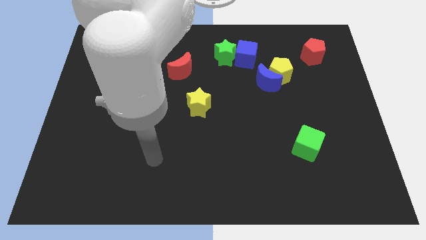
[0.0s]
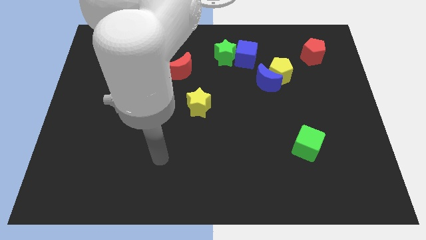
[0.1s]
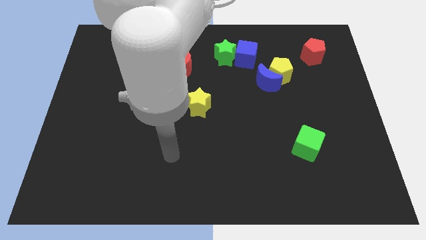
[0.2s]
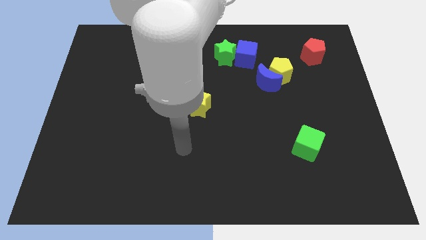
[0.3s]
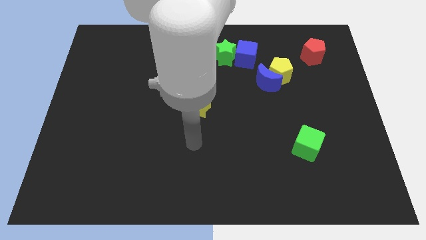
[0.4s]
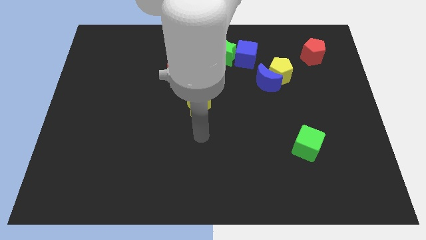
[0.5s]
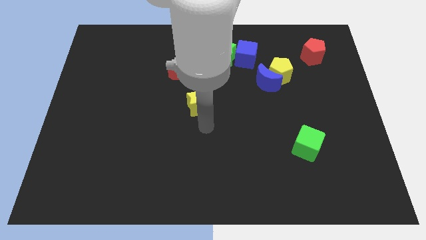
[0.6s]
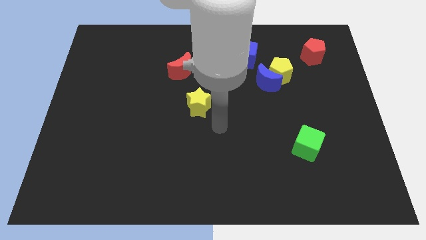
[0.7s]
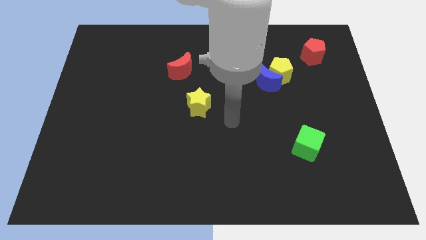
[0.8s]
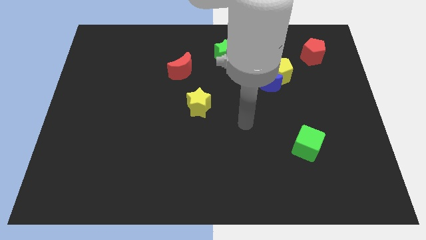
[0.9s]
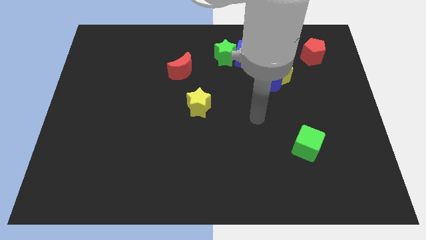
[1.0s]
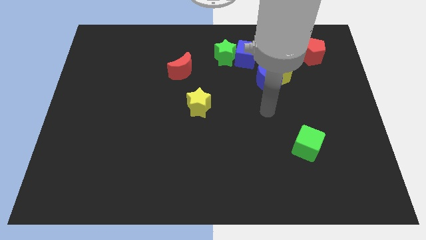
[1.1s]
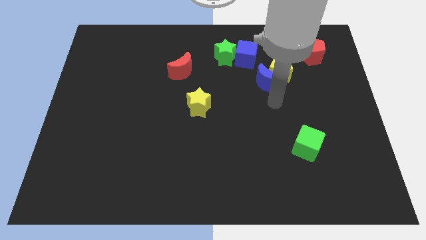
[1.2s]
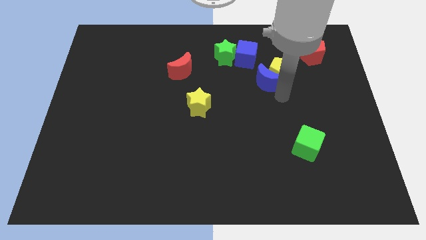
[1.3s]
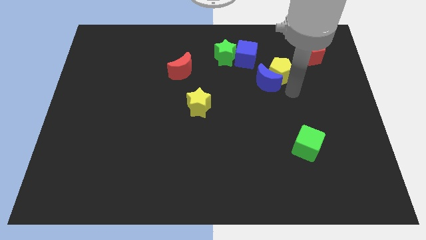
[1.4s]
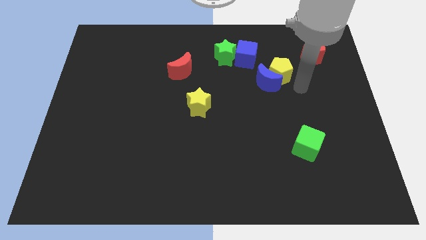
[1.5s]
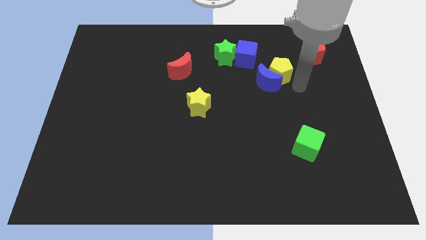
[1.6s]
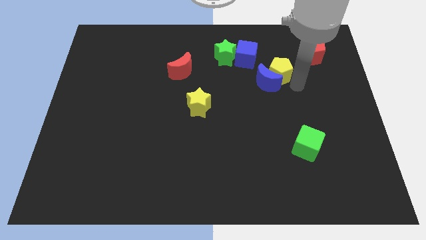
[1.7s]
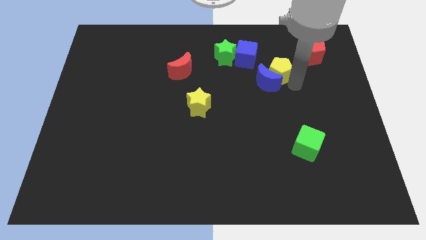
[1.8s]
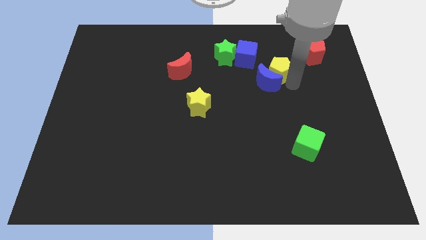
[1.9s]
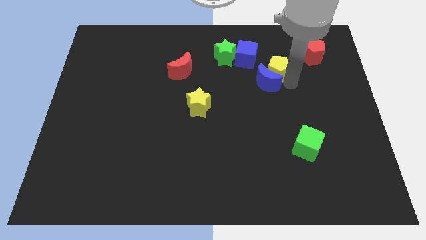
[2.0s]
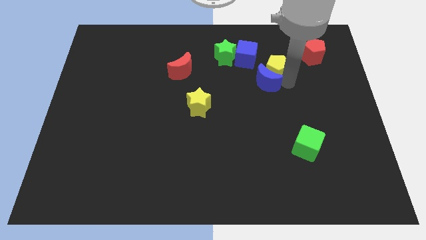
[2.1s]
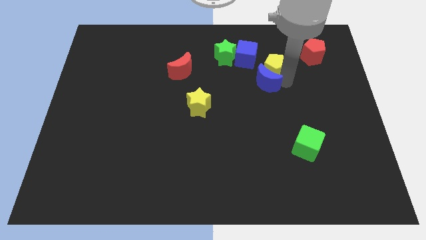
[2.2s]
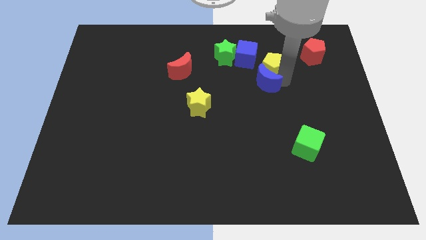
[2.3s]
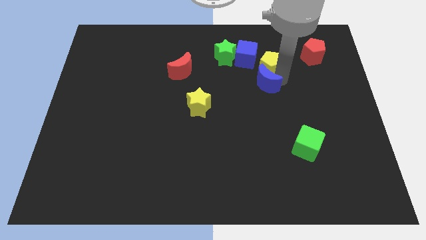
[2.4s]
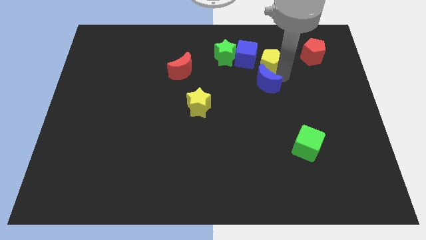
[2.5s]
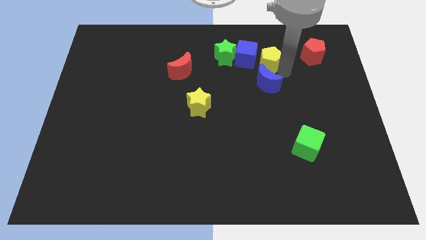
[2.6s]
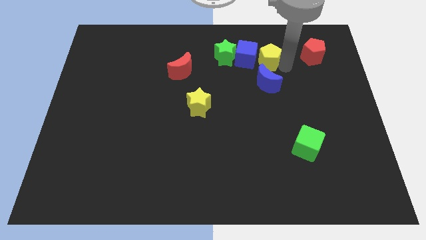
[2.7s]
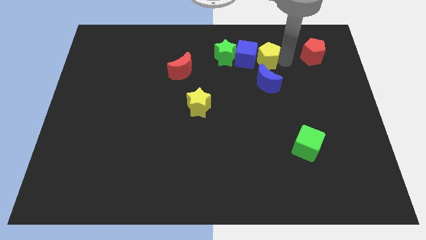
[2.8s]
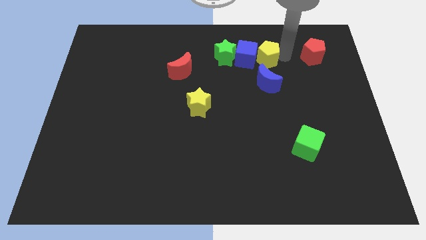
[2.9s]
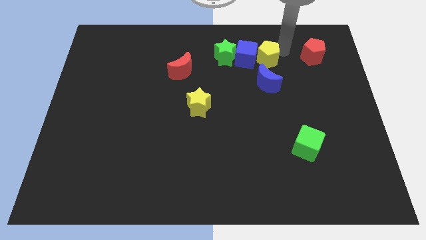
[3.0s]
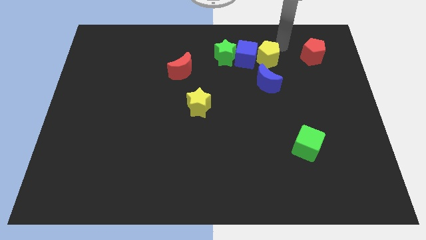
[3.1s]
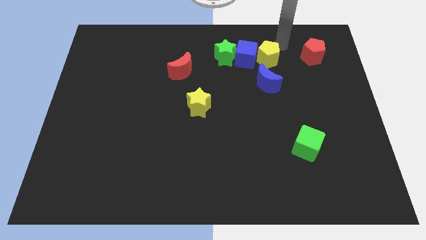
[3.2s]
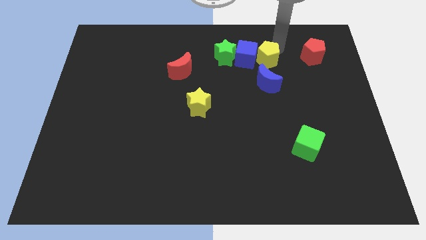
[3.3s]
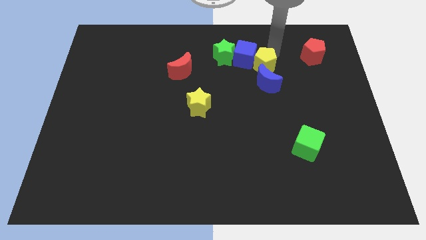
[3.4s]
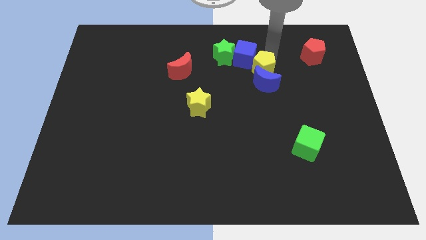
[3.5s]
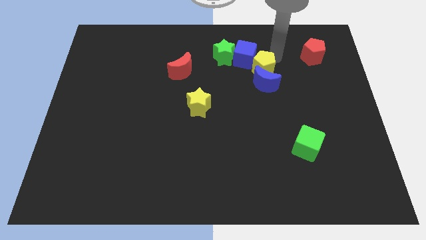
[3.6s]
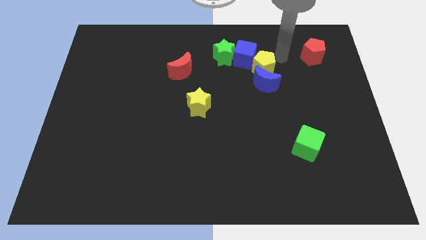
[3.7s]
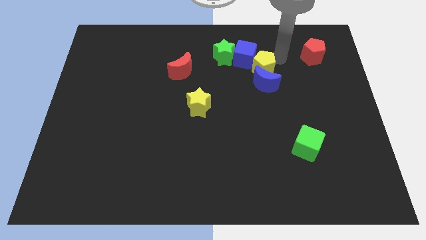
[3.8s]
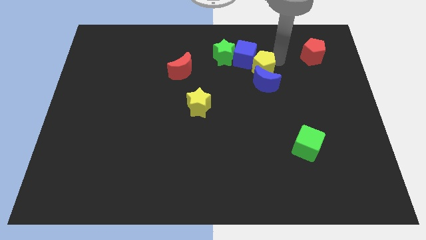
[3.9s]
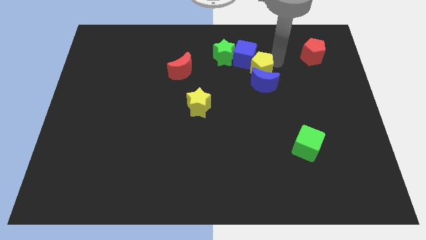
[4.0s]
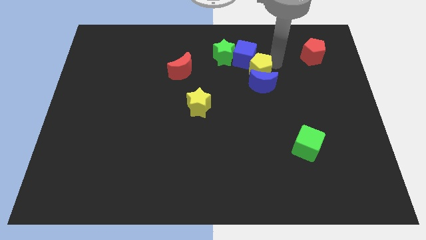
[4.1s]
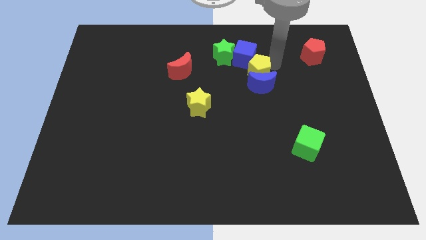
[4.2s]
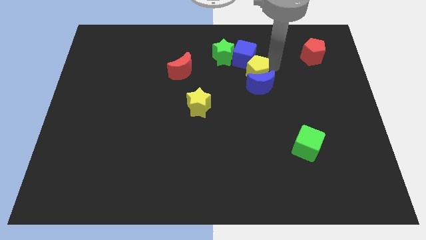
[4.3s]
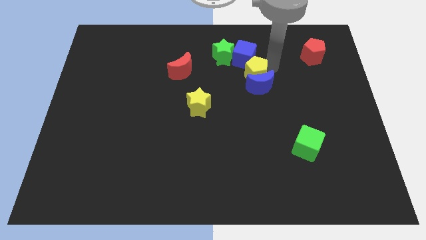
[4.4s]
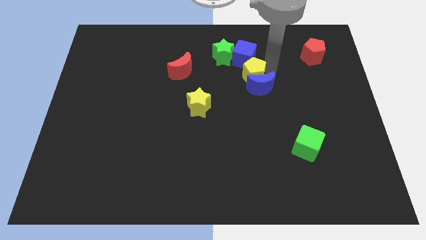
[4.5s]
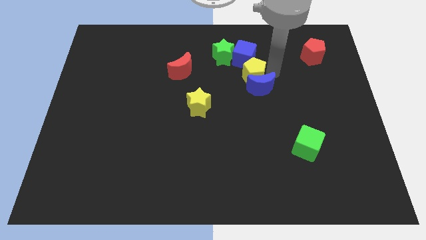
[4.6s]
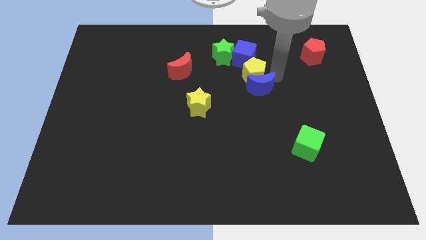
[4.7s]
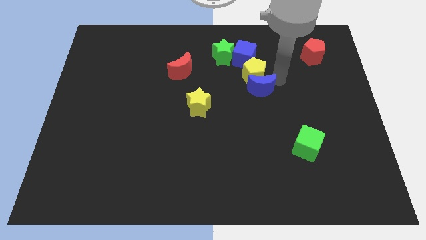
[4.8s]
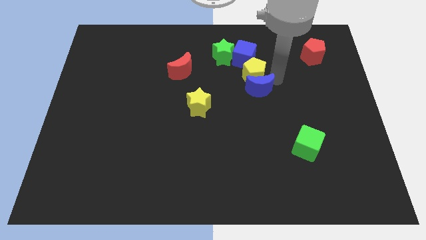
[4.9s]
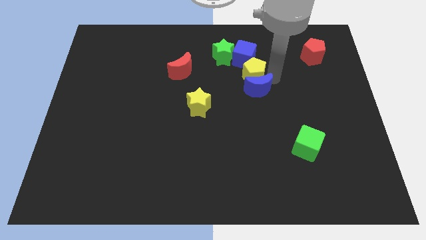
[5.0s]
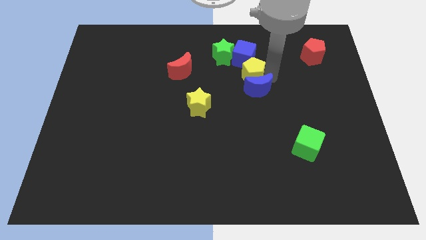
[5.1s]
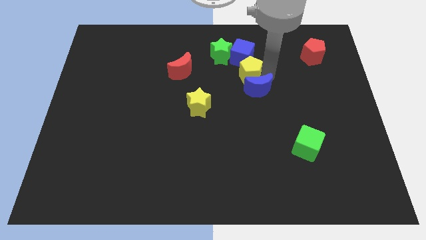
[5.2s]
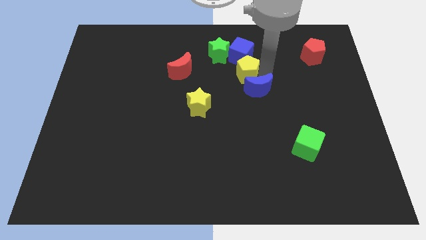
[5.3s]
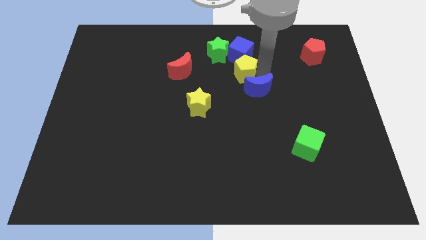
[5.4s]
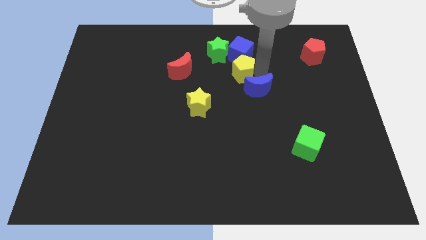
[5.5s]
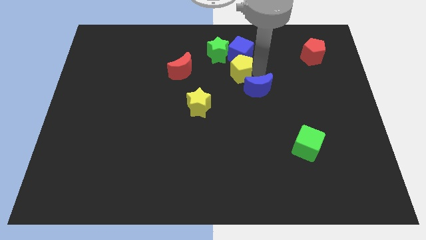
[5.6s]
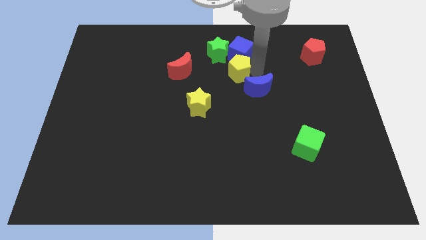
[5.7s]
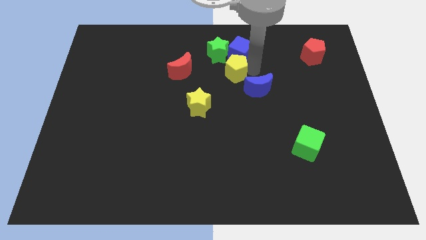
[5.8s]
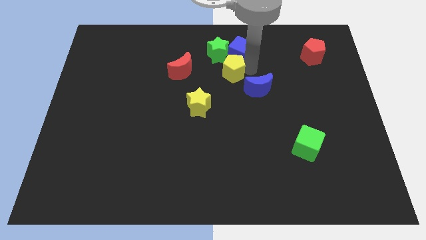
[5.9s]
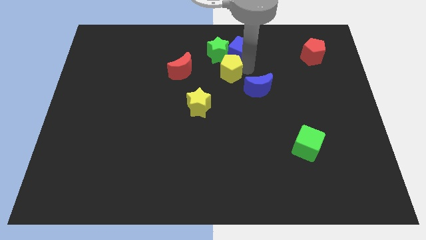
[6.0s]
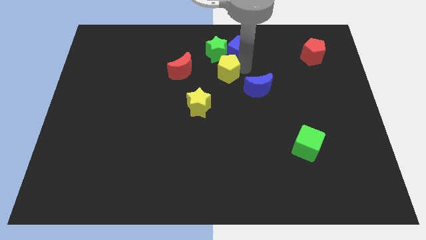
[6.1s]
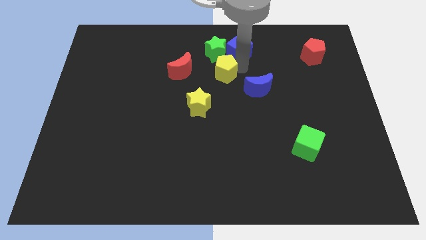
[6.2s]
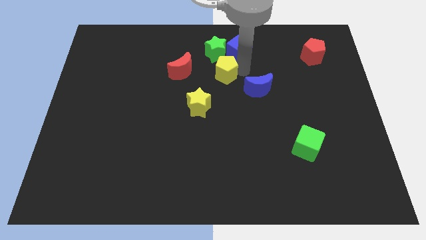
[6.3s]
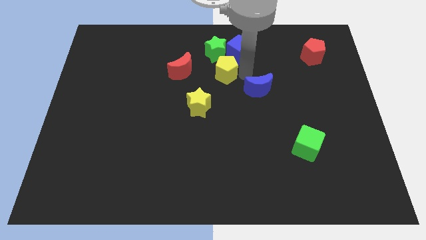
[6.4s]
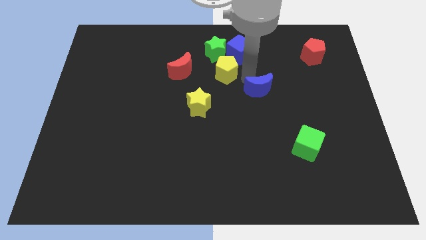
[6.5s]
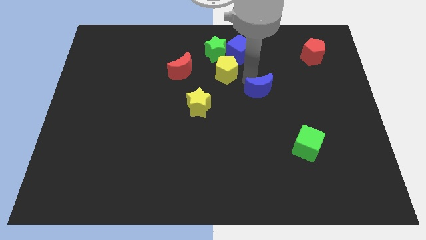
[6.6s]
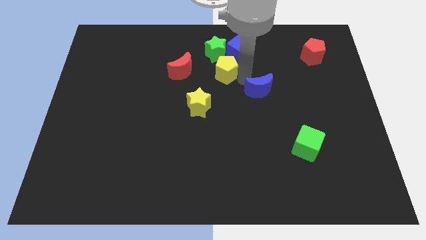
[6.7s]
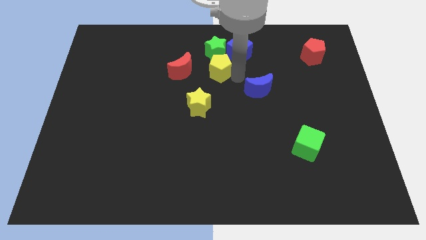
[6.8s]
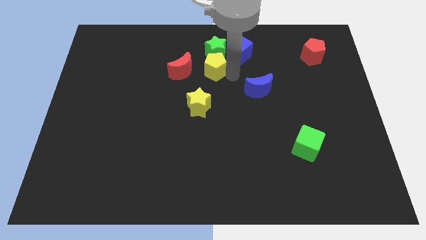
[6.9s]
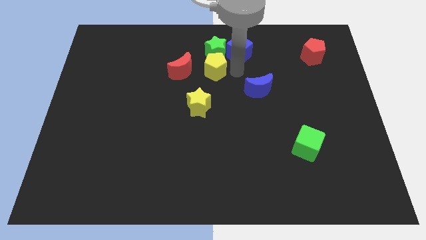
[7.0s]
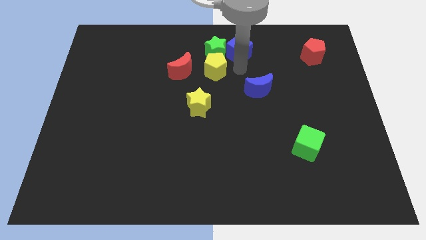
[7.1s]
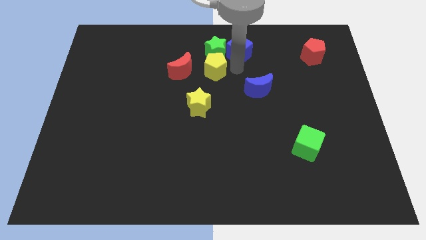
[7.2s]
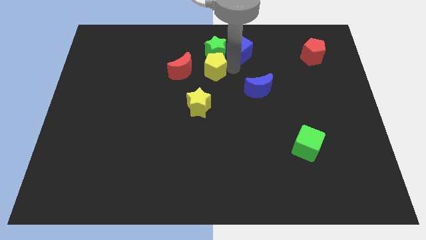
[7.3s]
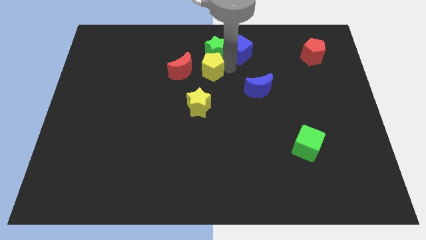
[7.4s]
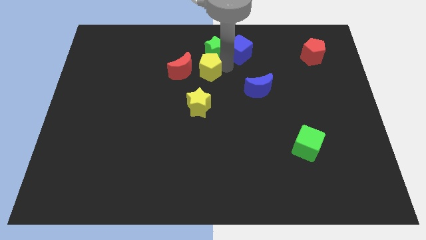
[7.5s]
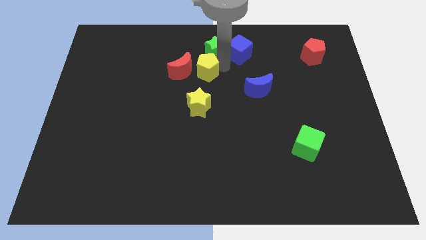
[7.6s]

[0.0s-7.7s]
slide the yellow pentagon towards the red moon
